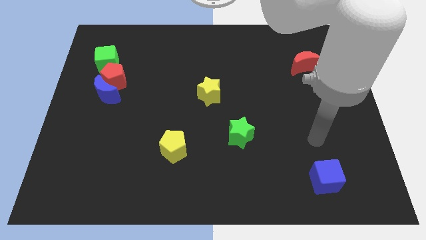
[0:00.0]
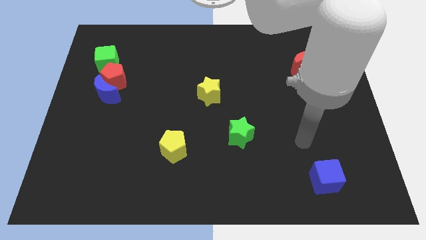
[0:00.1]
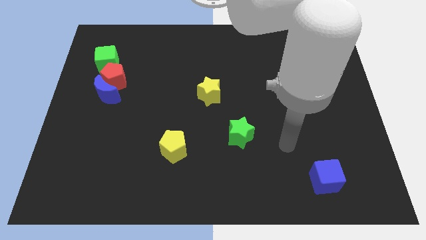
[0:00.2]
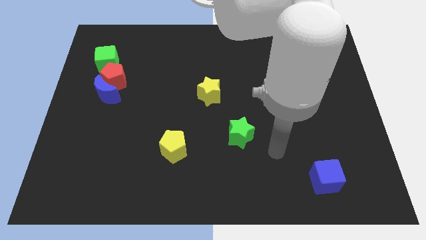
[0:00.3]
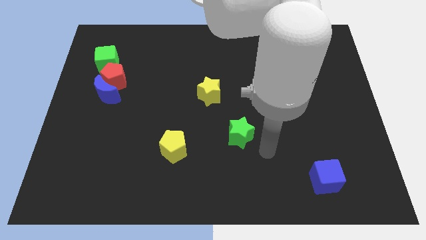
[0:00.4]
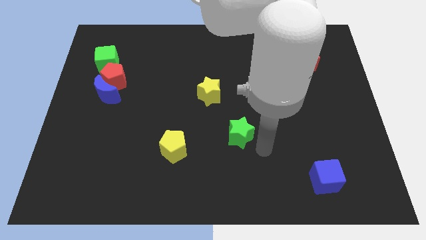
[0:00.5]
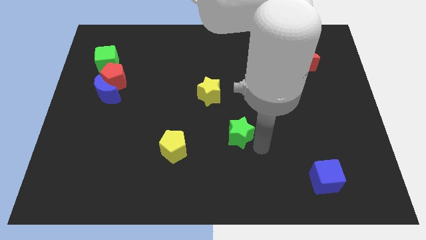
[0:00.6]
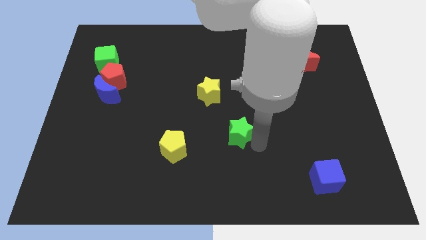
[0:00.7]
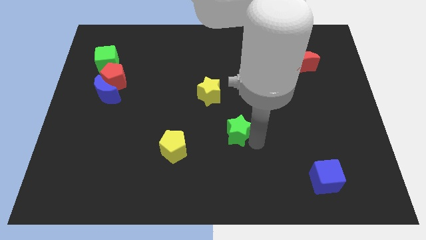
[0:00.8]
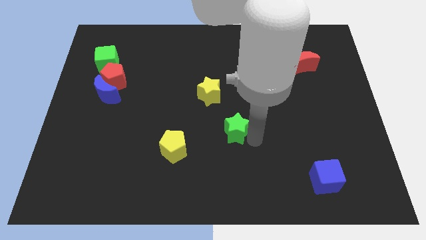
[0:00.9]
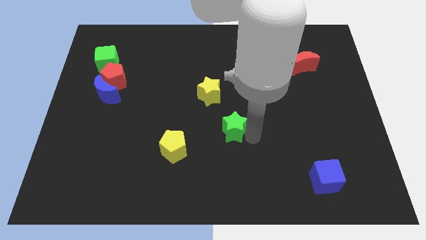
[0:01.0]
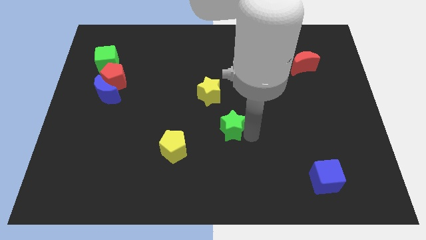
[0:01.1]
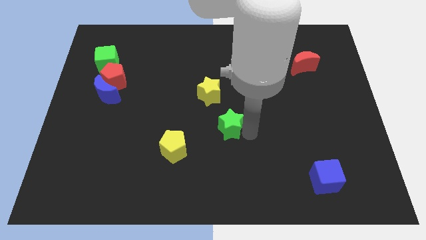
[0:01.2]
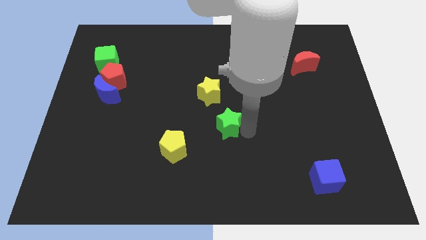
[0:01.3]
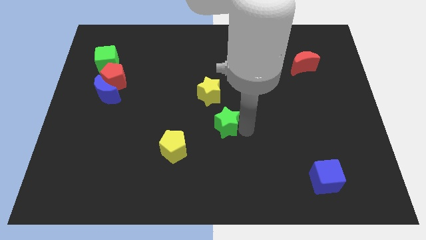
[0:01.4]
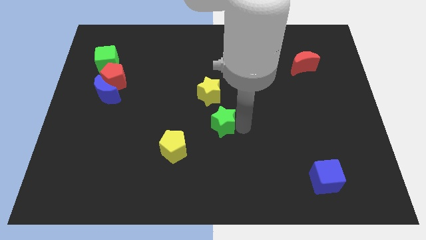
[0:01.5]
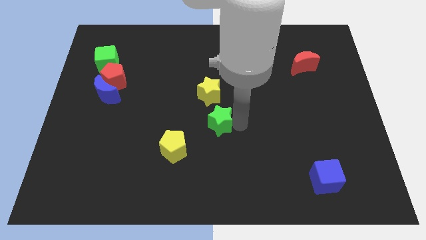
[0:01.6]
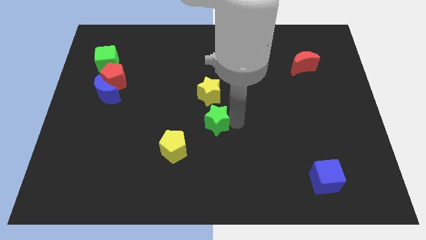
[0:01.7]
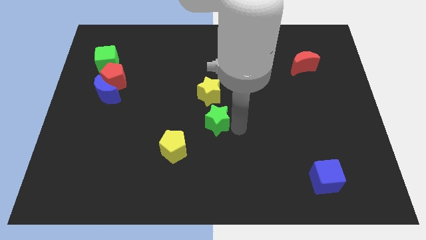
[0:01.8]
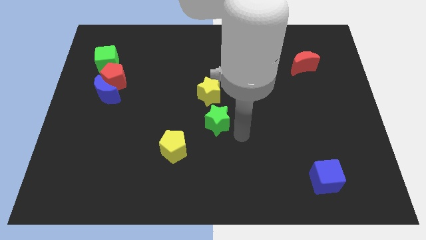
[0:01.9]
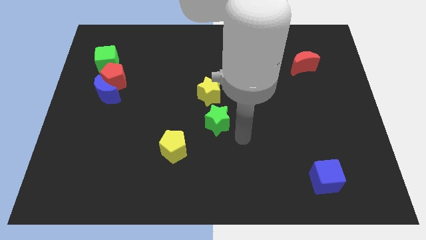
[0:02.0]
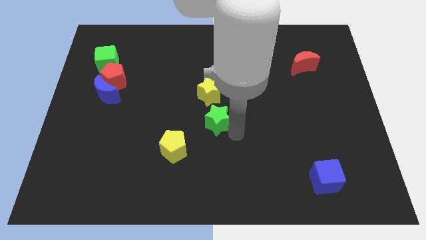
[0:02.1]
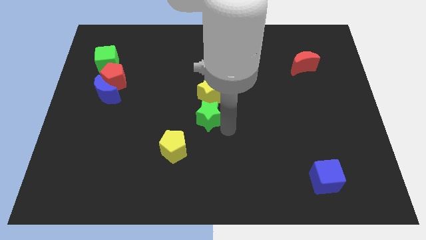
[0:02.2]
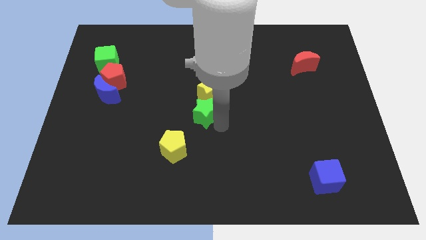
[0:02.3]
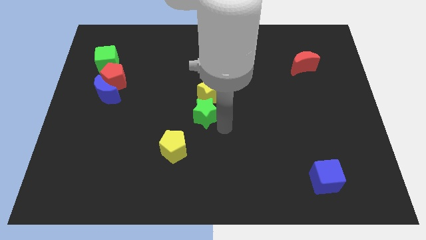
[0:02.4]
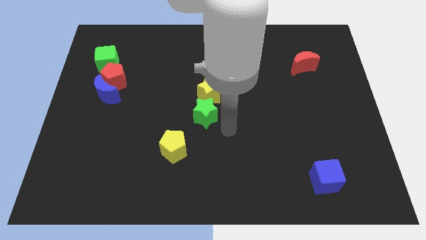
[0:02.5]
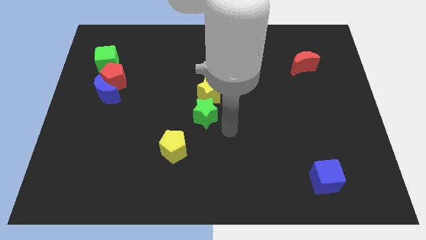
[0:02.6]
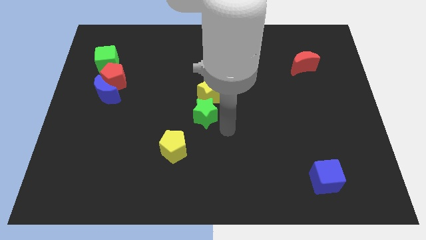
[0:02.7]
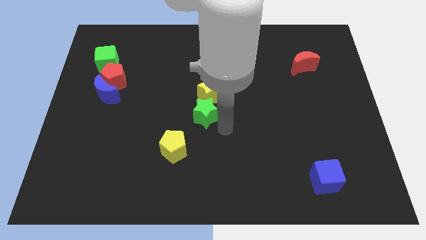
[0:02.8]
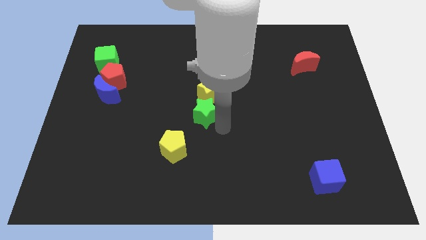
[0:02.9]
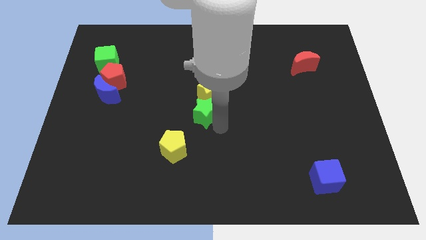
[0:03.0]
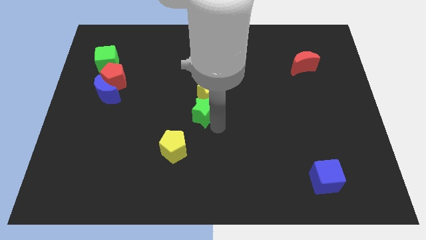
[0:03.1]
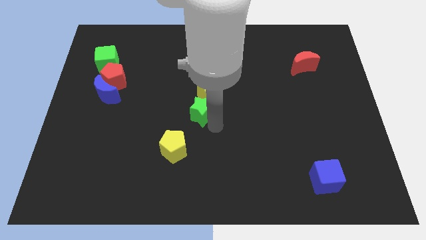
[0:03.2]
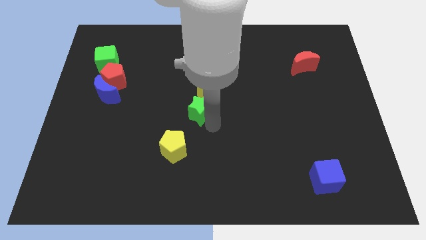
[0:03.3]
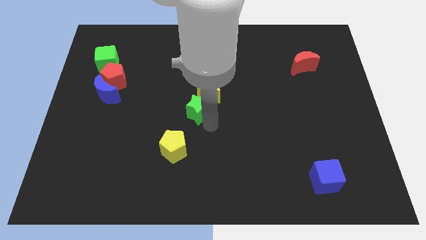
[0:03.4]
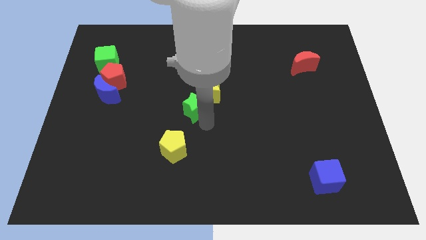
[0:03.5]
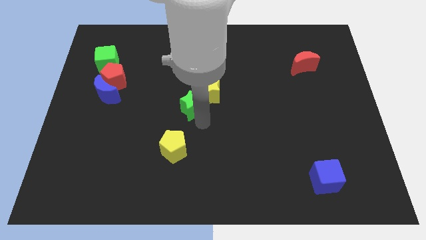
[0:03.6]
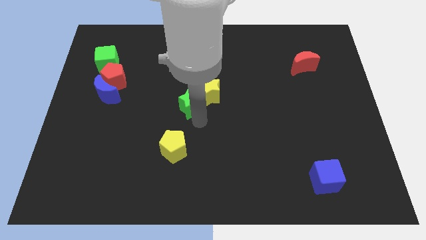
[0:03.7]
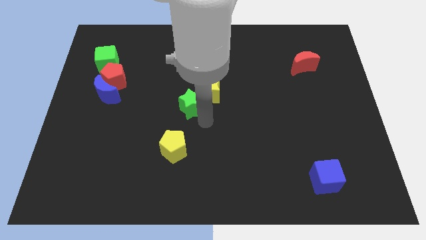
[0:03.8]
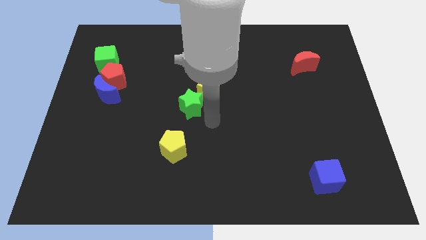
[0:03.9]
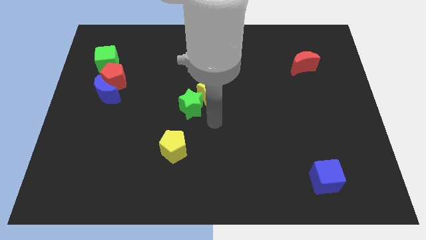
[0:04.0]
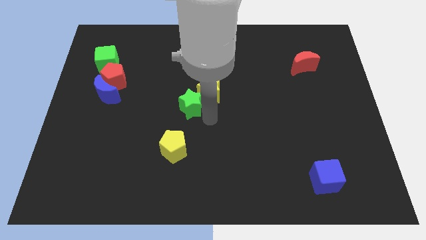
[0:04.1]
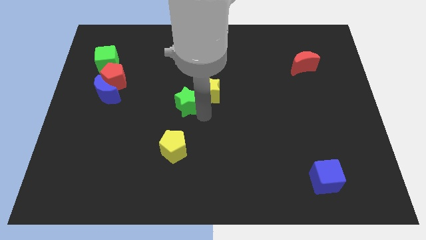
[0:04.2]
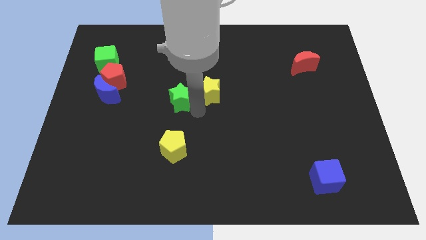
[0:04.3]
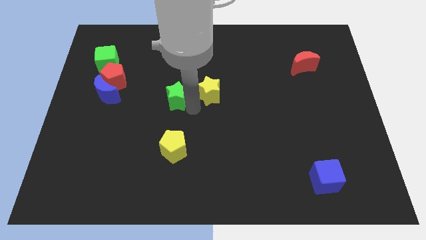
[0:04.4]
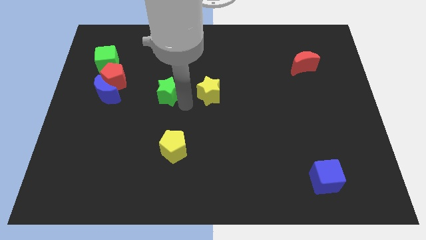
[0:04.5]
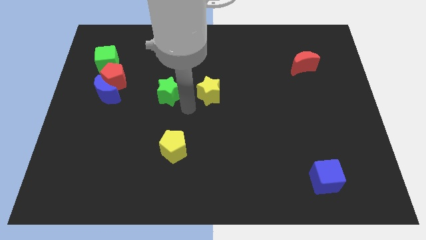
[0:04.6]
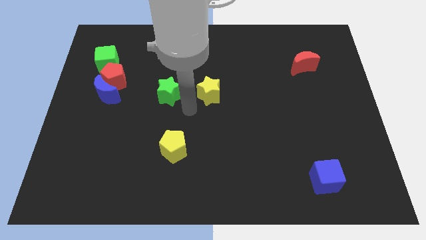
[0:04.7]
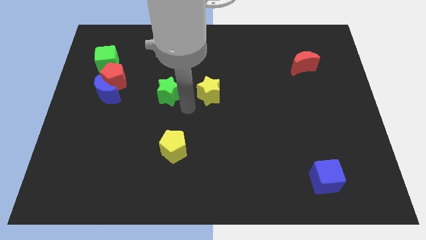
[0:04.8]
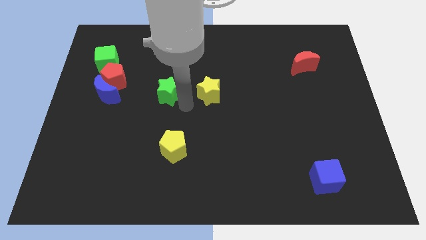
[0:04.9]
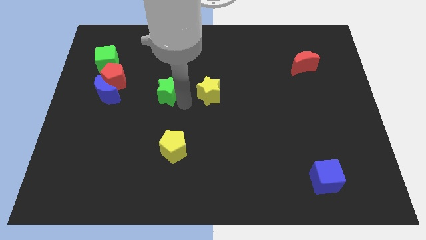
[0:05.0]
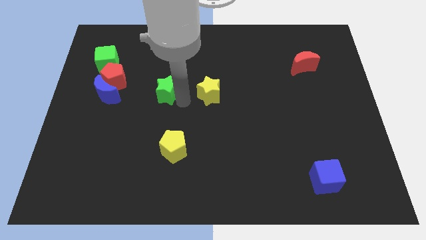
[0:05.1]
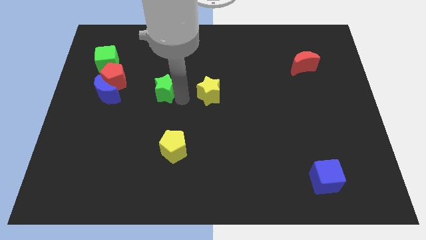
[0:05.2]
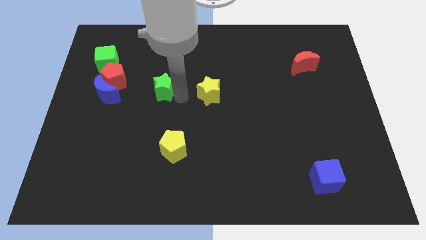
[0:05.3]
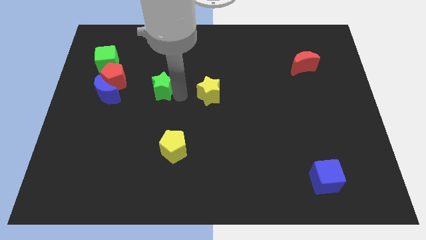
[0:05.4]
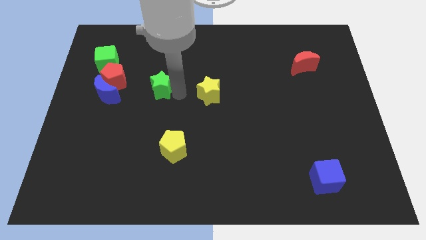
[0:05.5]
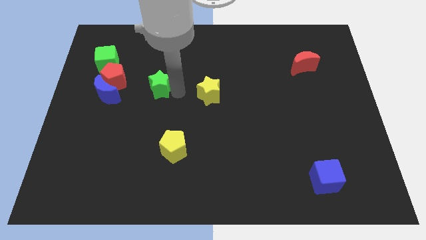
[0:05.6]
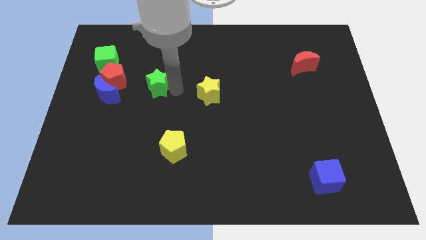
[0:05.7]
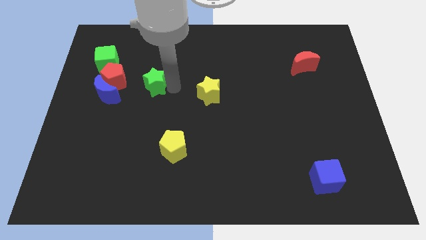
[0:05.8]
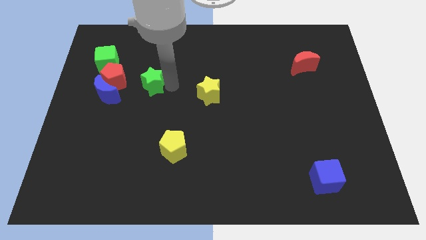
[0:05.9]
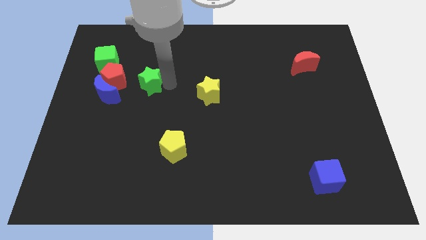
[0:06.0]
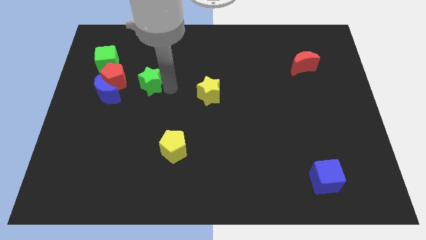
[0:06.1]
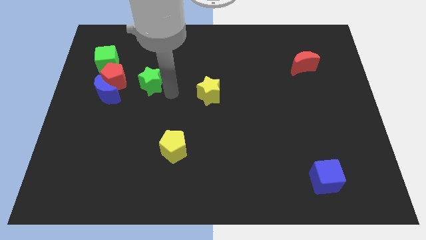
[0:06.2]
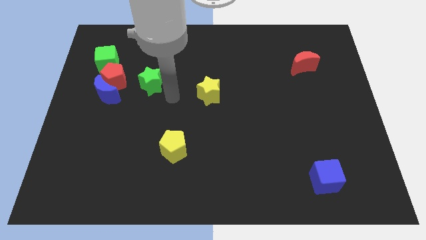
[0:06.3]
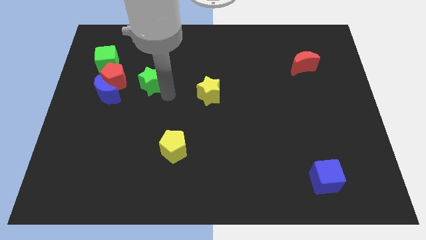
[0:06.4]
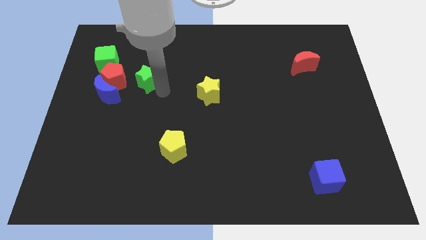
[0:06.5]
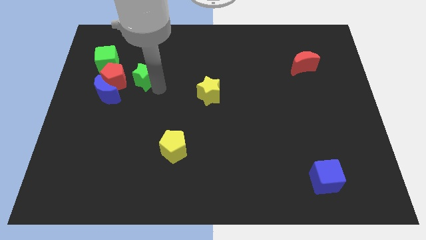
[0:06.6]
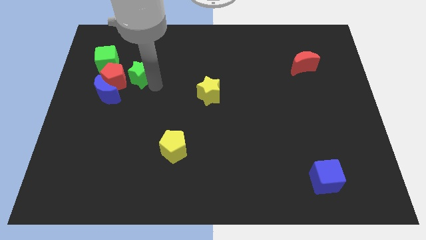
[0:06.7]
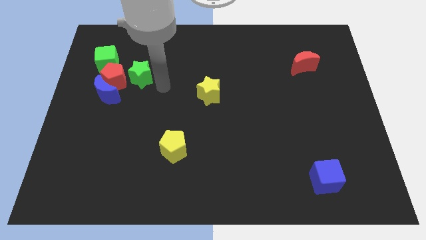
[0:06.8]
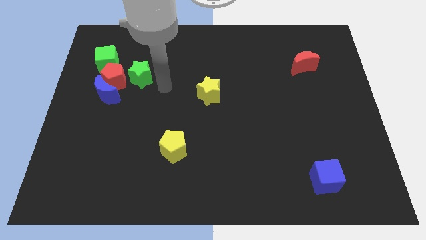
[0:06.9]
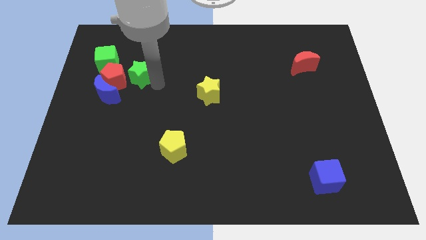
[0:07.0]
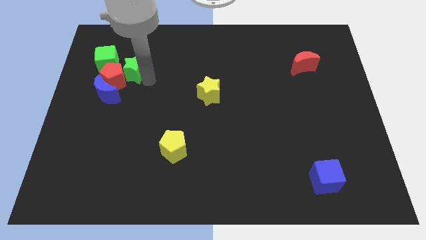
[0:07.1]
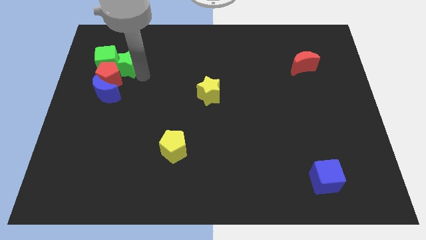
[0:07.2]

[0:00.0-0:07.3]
push the green star to the green cube

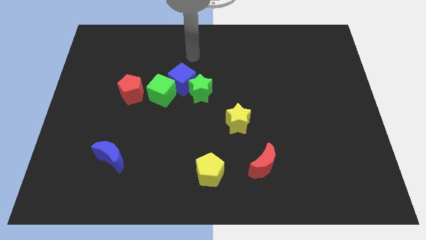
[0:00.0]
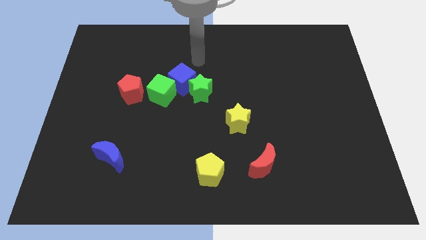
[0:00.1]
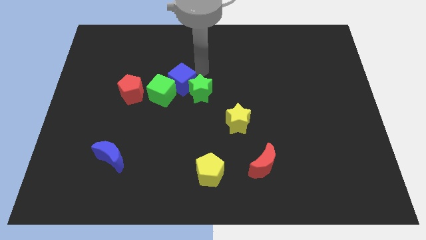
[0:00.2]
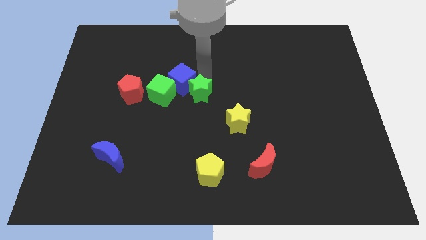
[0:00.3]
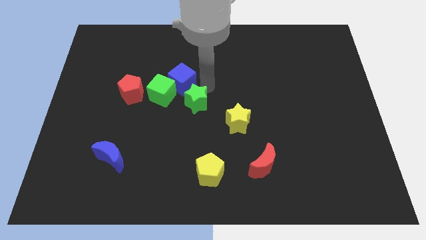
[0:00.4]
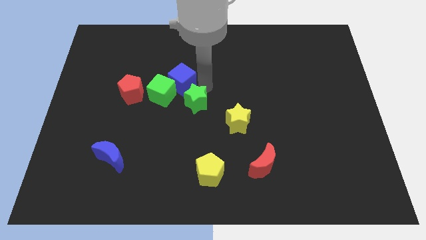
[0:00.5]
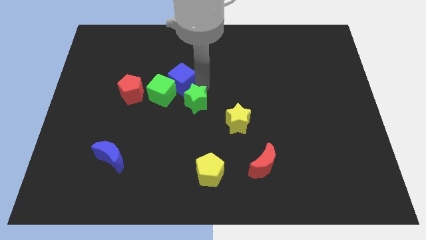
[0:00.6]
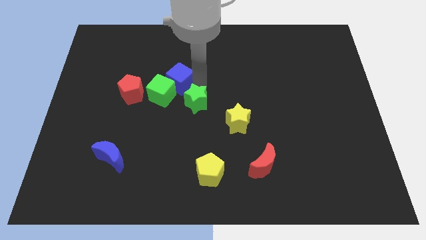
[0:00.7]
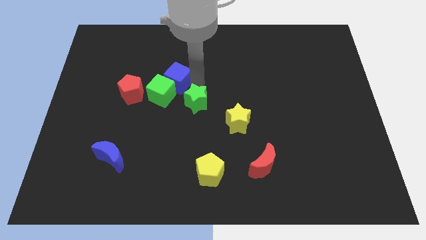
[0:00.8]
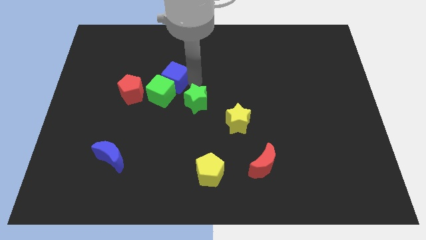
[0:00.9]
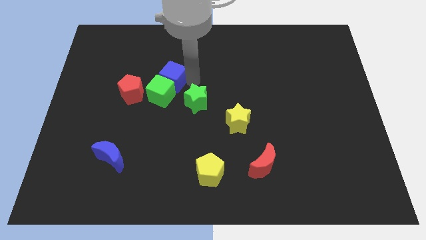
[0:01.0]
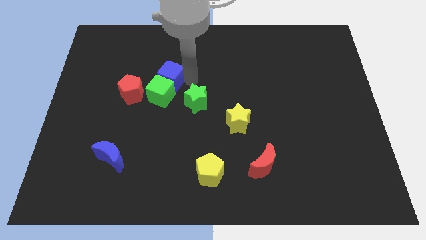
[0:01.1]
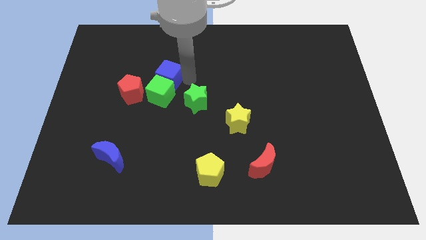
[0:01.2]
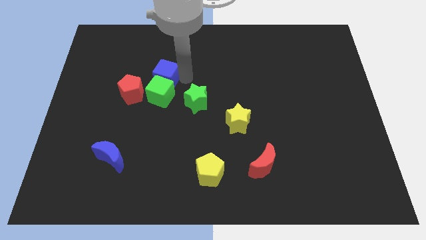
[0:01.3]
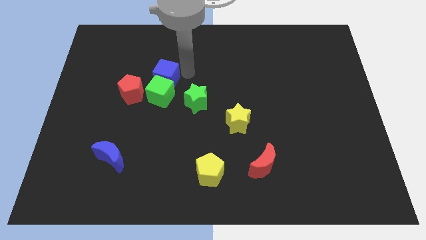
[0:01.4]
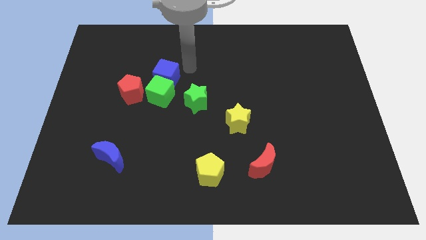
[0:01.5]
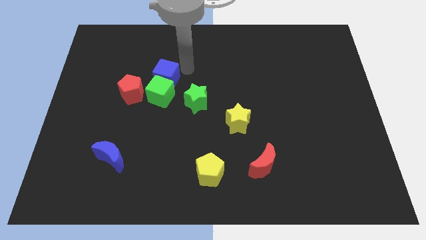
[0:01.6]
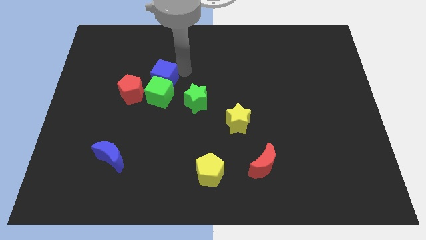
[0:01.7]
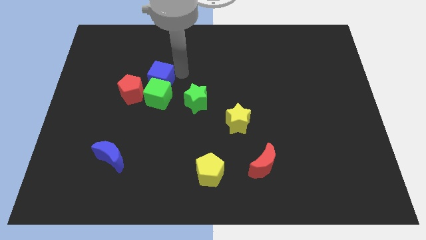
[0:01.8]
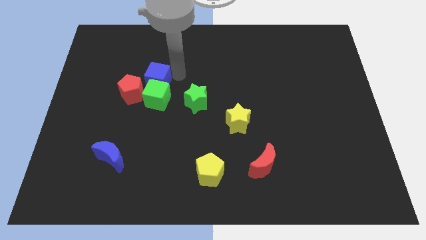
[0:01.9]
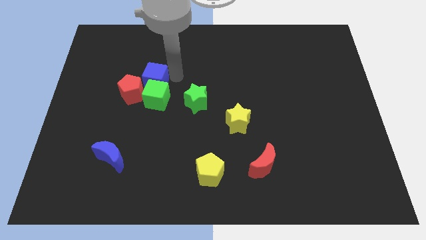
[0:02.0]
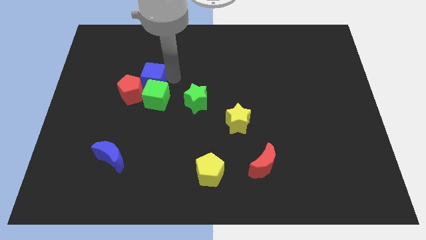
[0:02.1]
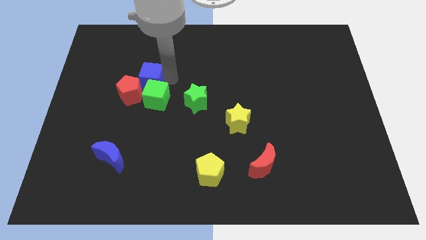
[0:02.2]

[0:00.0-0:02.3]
slide the blue cube to the red pentagon
